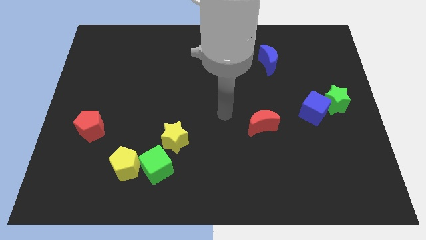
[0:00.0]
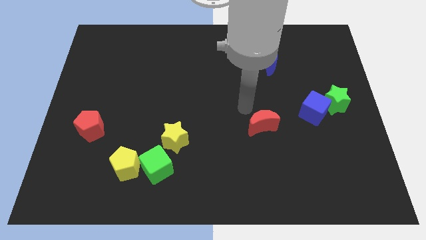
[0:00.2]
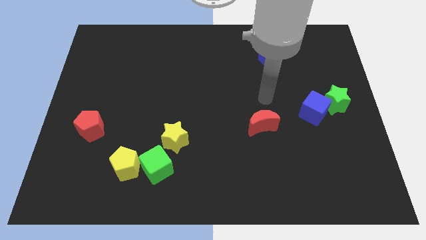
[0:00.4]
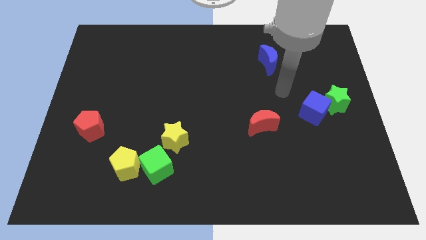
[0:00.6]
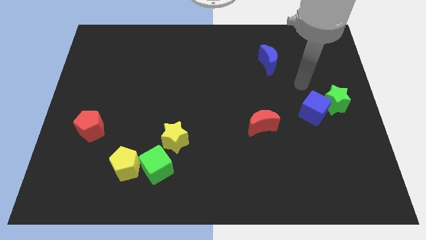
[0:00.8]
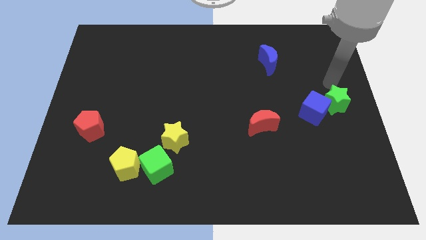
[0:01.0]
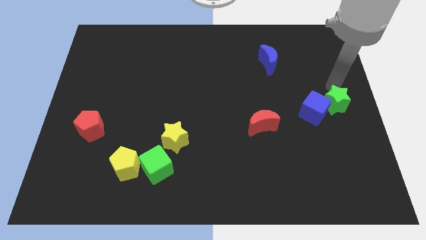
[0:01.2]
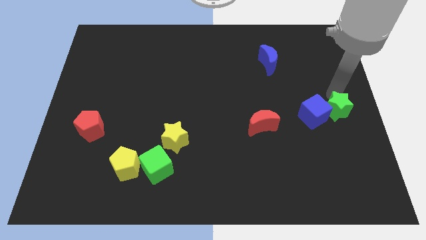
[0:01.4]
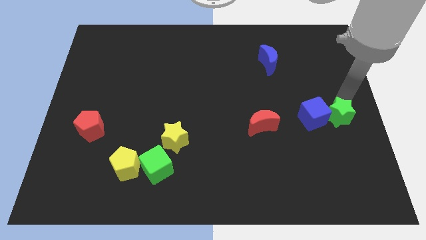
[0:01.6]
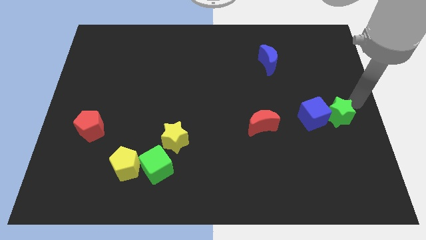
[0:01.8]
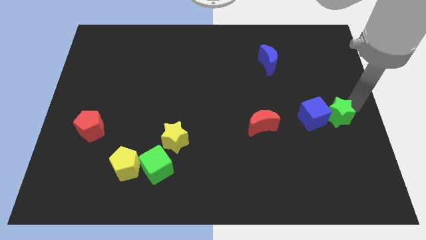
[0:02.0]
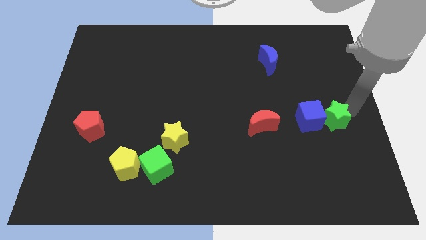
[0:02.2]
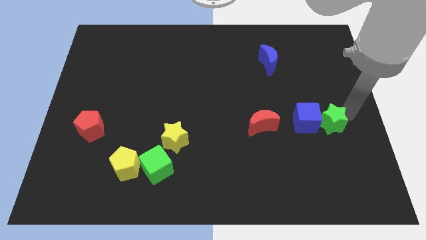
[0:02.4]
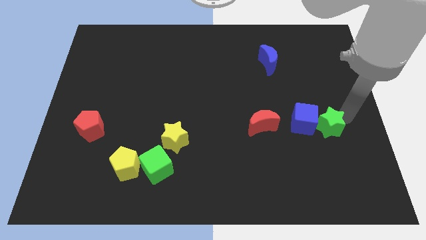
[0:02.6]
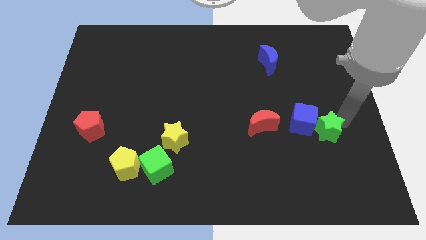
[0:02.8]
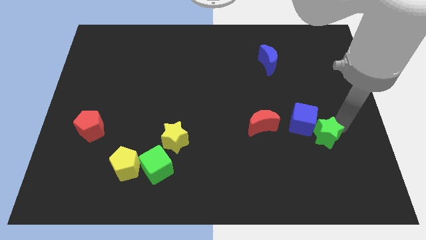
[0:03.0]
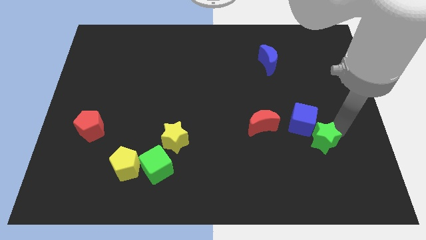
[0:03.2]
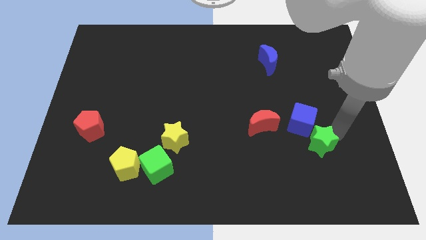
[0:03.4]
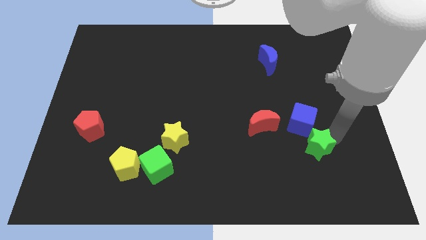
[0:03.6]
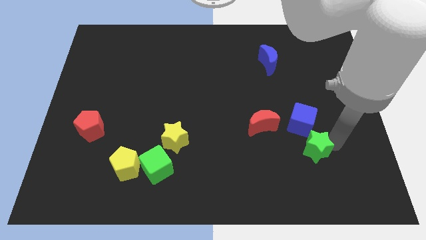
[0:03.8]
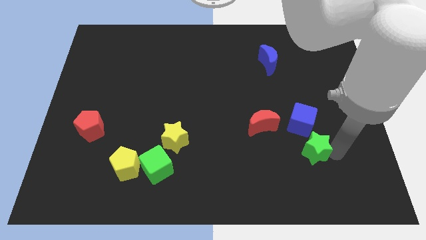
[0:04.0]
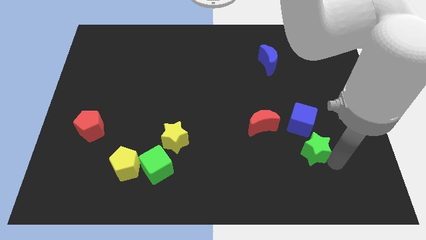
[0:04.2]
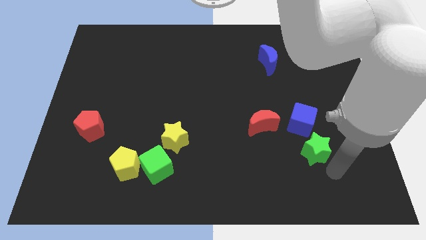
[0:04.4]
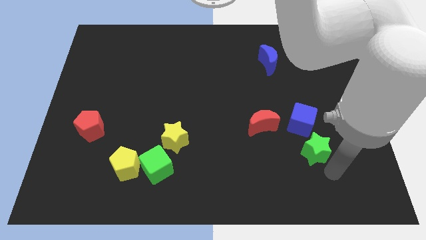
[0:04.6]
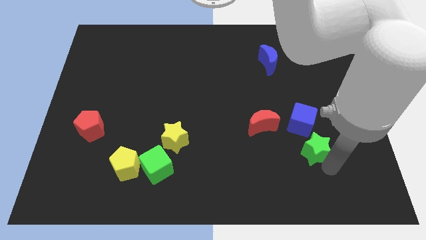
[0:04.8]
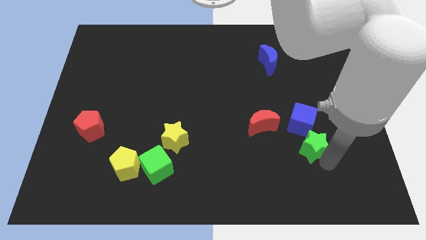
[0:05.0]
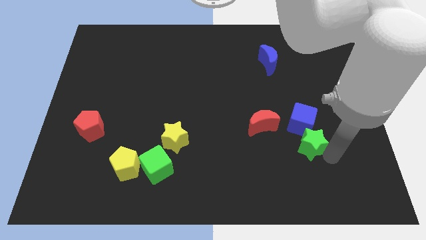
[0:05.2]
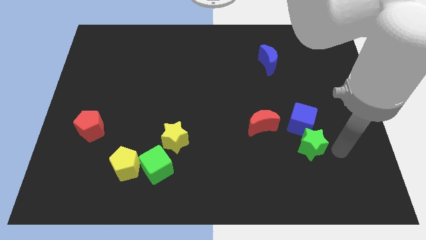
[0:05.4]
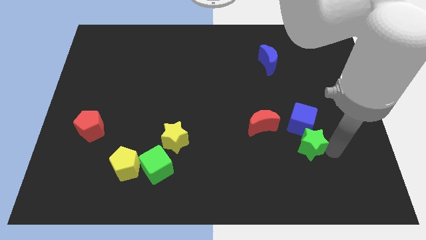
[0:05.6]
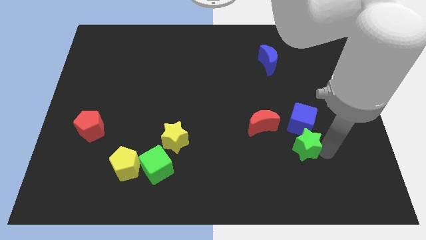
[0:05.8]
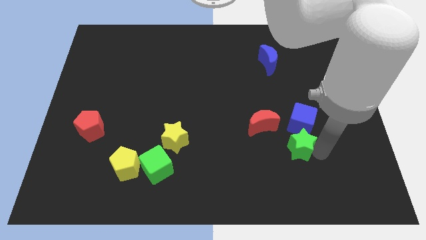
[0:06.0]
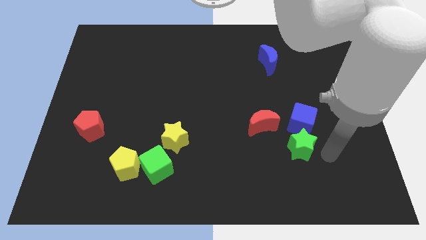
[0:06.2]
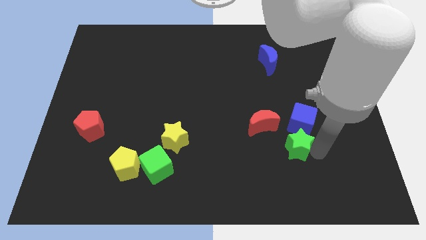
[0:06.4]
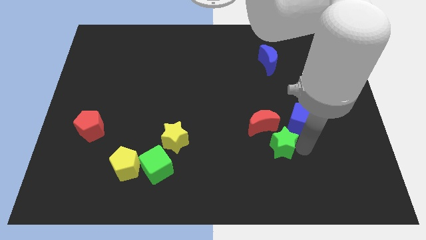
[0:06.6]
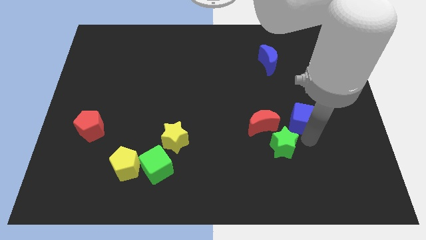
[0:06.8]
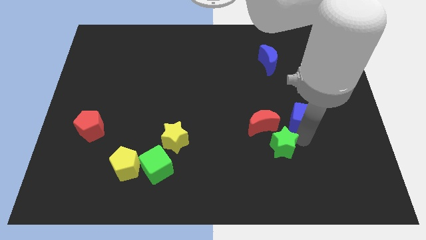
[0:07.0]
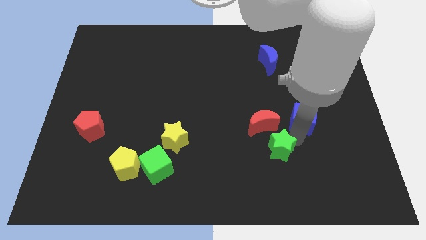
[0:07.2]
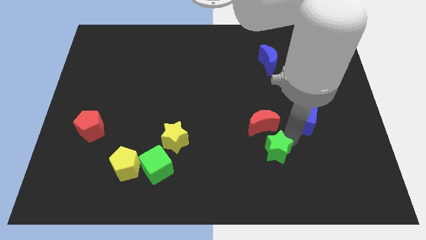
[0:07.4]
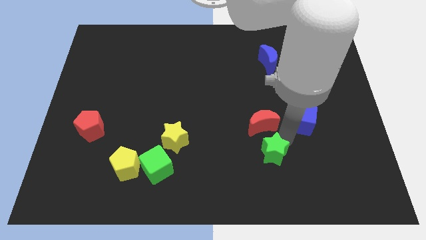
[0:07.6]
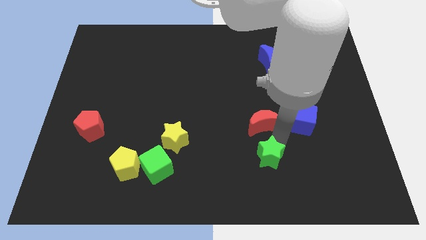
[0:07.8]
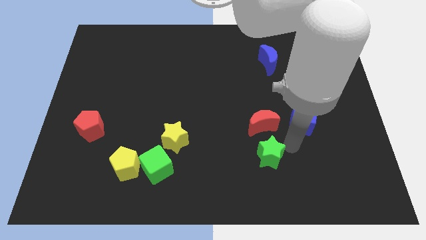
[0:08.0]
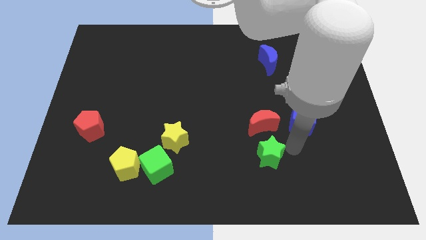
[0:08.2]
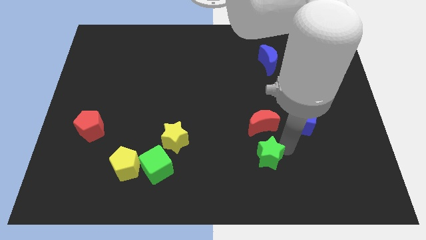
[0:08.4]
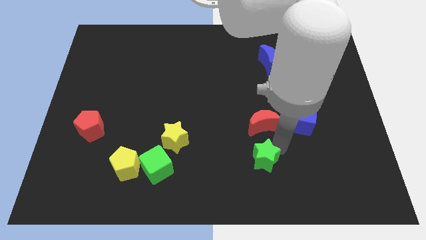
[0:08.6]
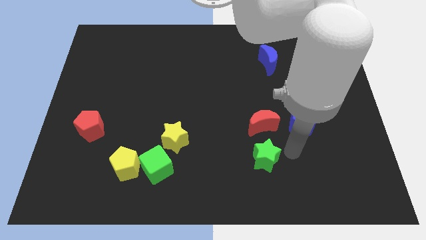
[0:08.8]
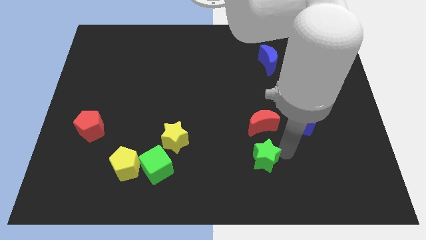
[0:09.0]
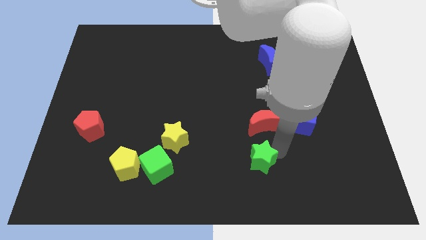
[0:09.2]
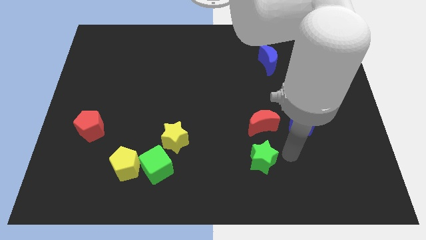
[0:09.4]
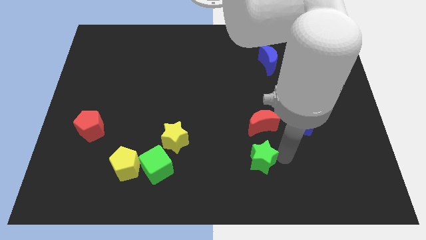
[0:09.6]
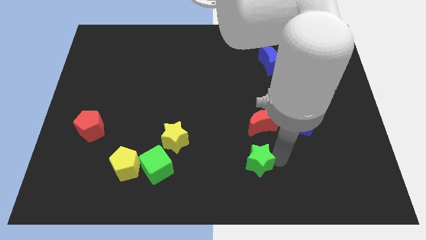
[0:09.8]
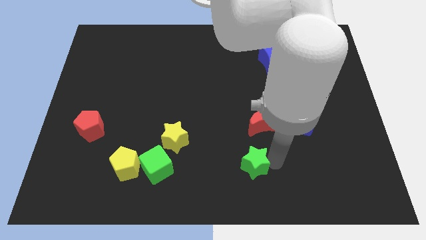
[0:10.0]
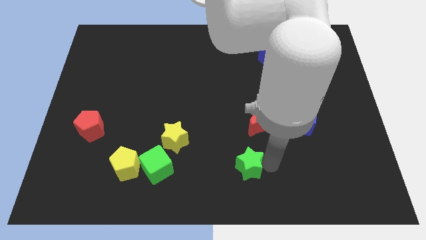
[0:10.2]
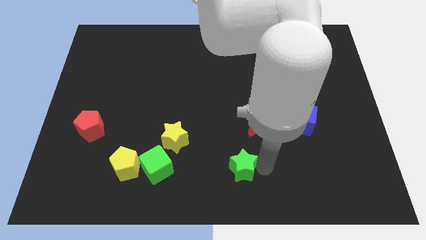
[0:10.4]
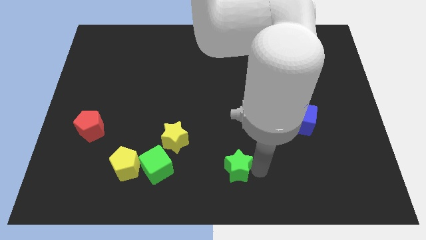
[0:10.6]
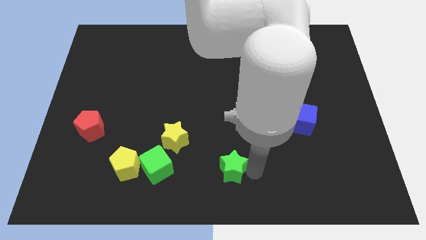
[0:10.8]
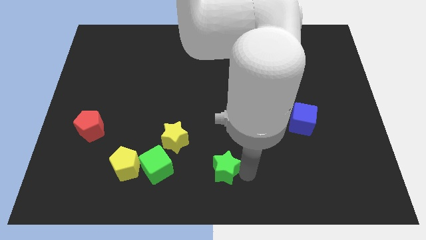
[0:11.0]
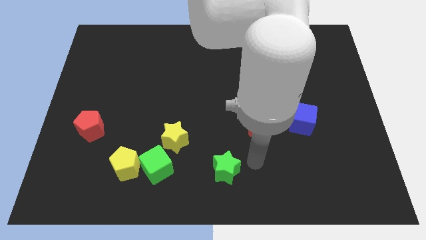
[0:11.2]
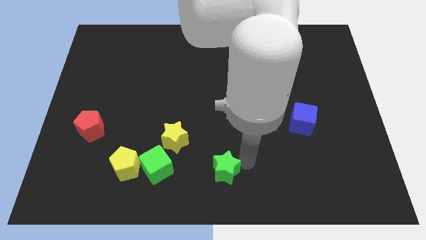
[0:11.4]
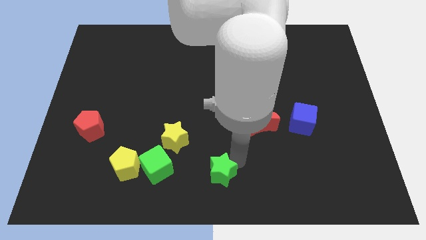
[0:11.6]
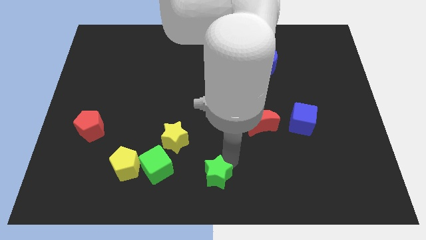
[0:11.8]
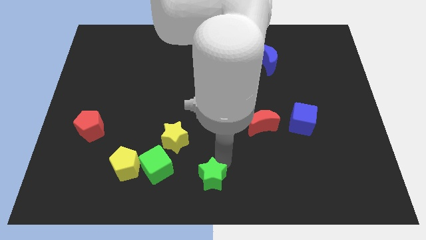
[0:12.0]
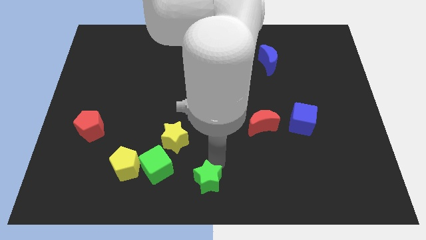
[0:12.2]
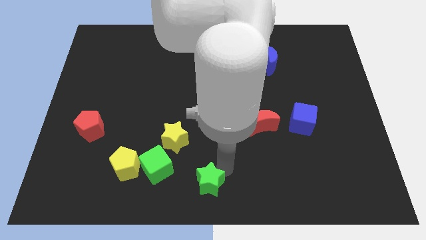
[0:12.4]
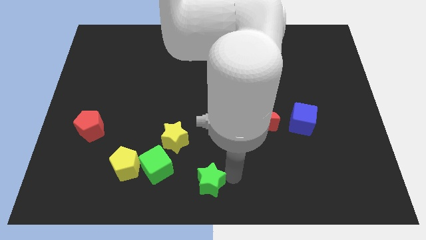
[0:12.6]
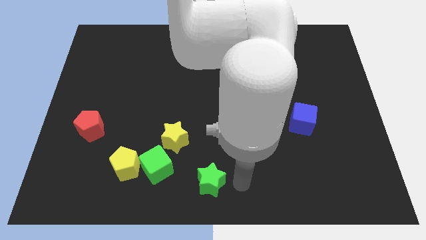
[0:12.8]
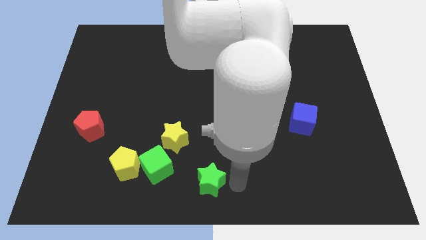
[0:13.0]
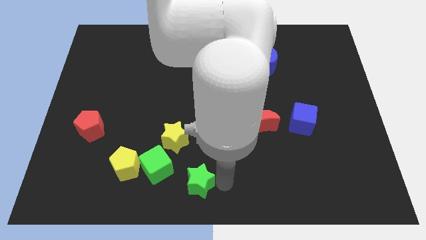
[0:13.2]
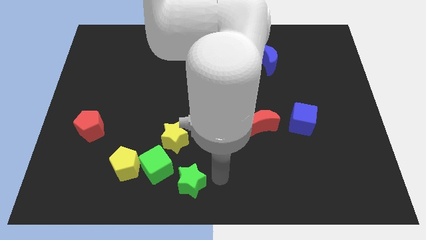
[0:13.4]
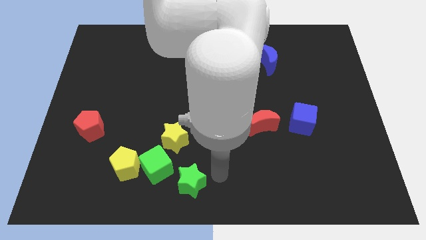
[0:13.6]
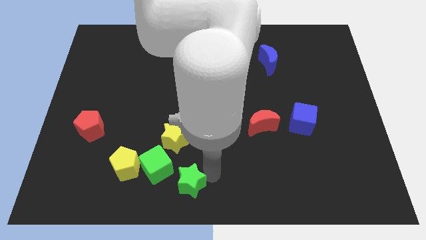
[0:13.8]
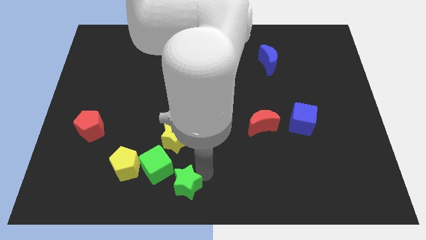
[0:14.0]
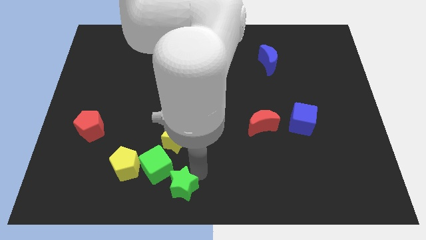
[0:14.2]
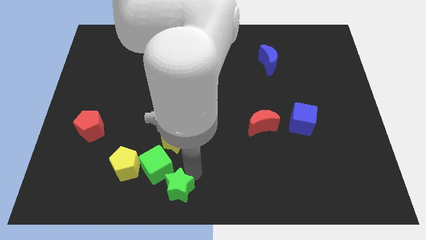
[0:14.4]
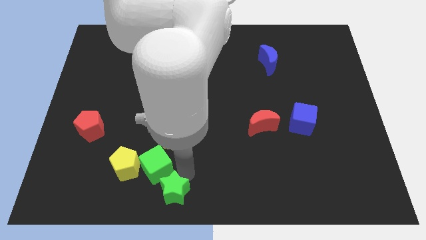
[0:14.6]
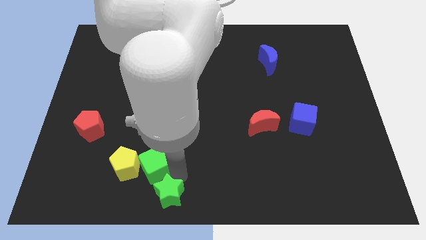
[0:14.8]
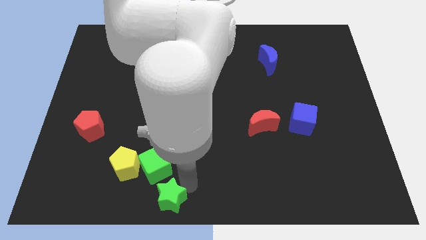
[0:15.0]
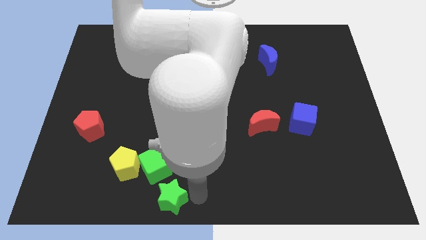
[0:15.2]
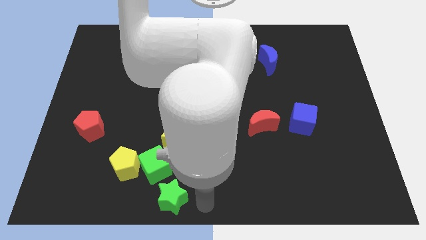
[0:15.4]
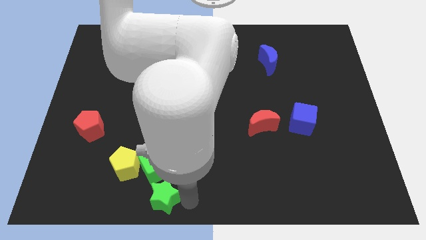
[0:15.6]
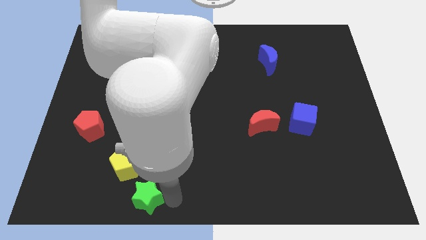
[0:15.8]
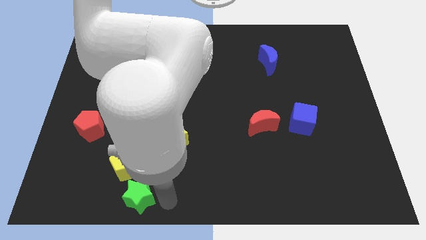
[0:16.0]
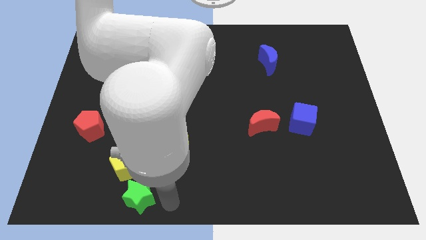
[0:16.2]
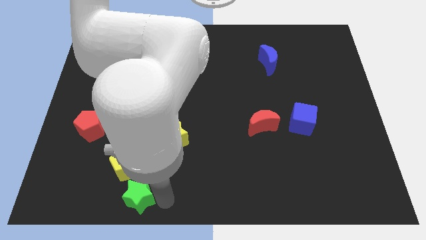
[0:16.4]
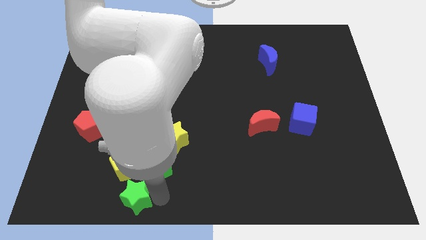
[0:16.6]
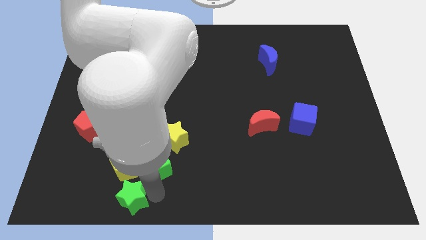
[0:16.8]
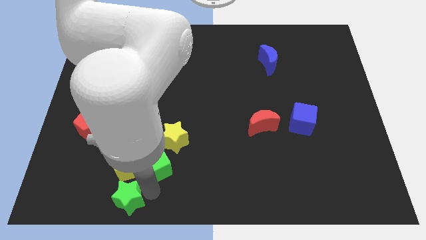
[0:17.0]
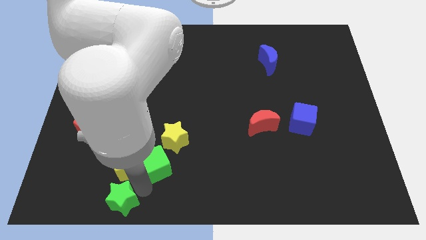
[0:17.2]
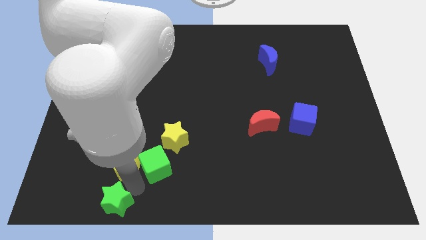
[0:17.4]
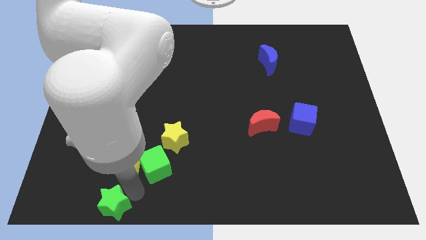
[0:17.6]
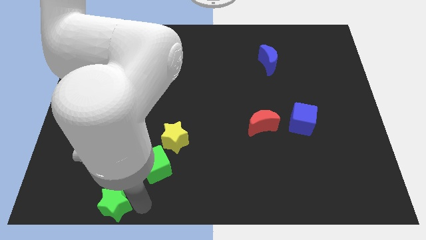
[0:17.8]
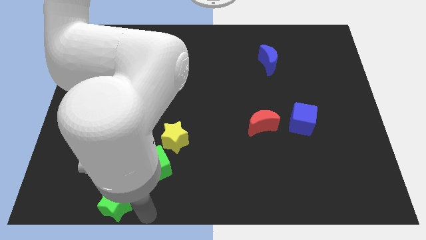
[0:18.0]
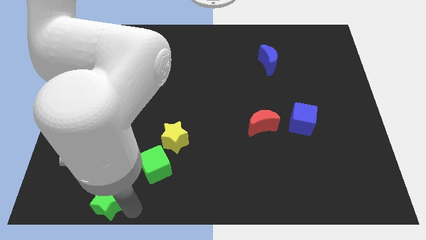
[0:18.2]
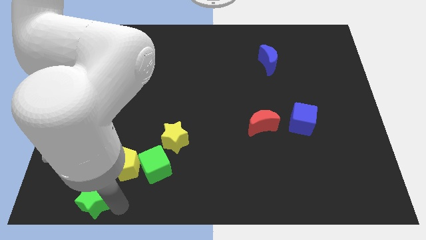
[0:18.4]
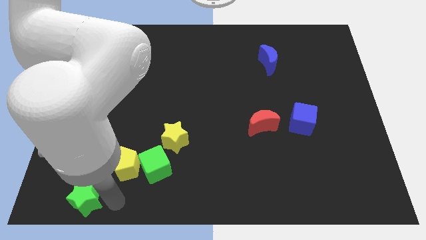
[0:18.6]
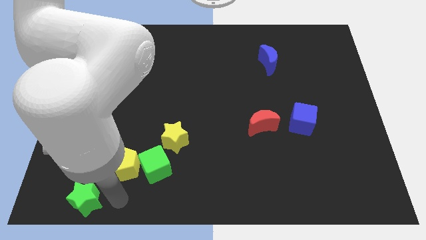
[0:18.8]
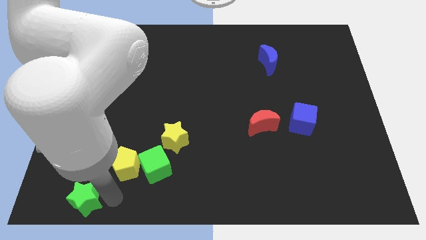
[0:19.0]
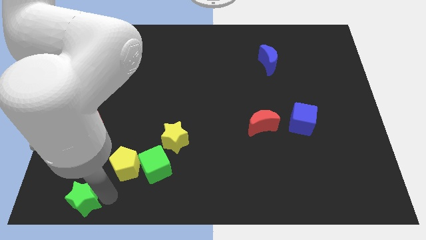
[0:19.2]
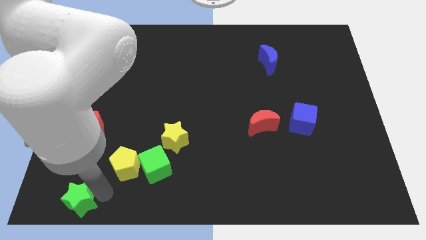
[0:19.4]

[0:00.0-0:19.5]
put the green star to the bottom left
